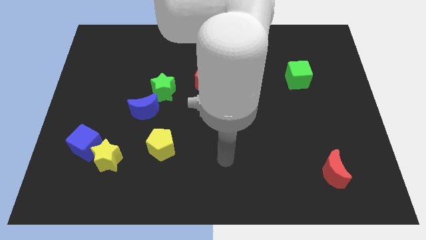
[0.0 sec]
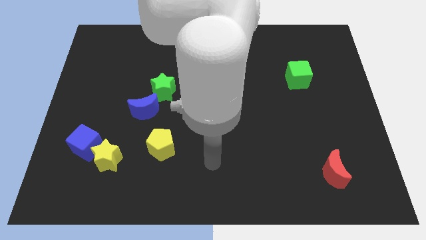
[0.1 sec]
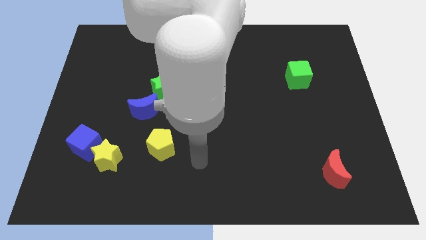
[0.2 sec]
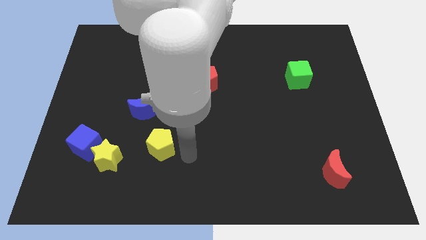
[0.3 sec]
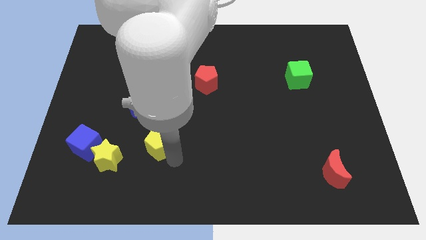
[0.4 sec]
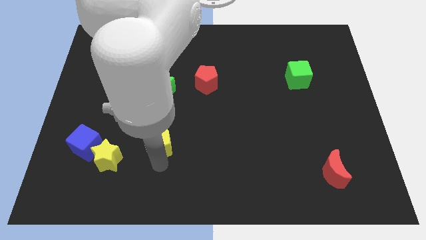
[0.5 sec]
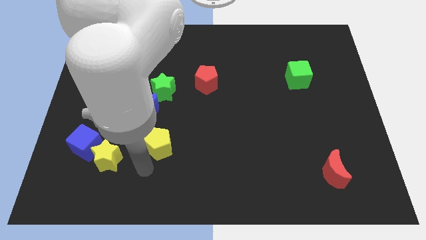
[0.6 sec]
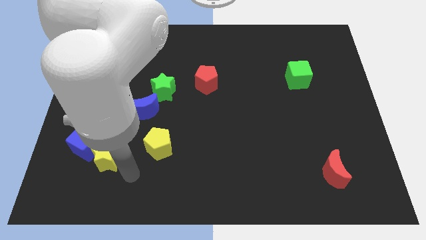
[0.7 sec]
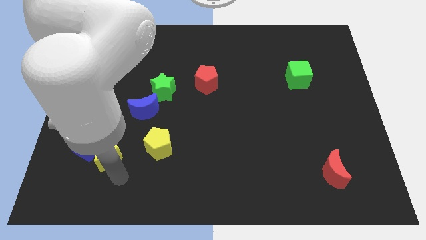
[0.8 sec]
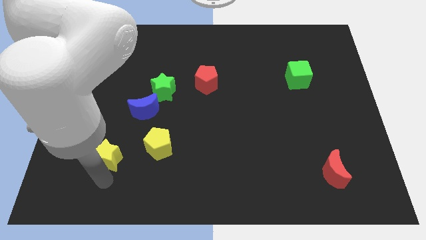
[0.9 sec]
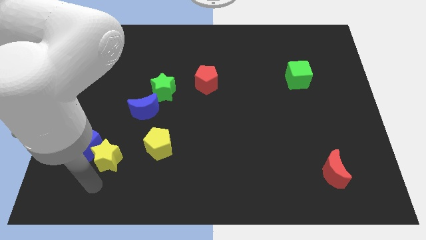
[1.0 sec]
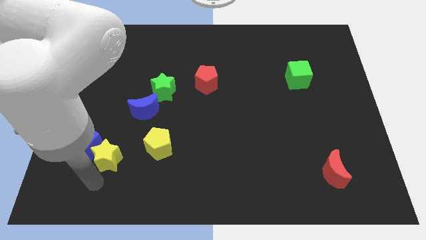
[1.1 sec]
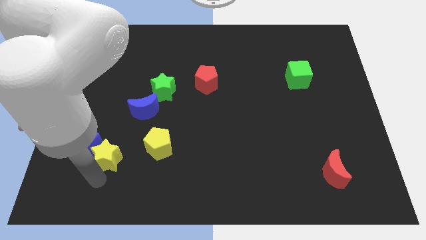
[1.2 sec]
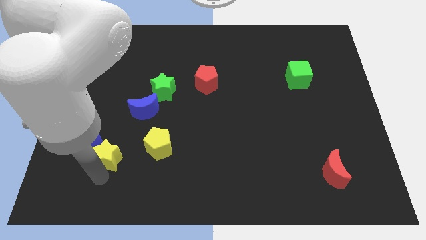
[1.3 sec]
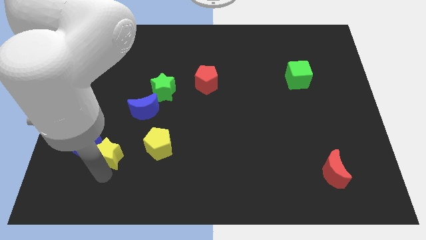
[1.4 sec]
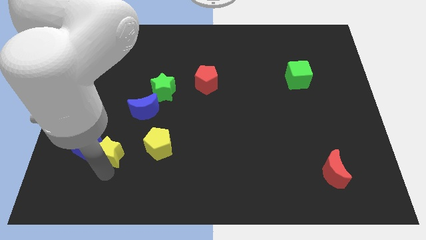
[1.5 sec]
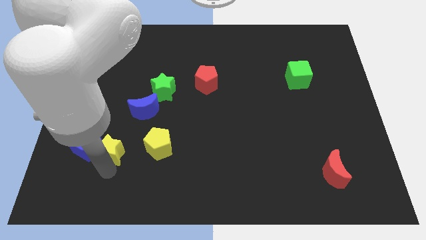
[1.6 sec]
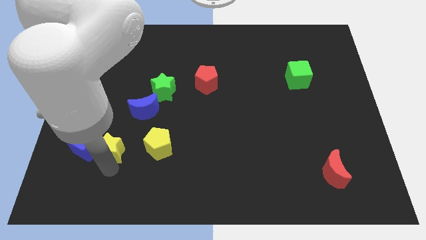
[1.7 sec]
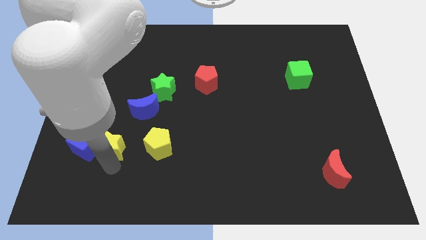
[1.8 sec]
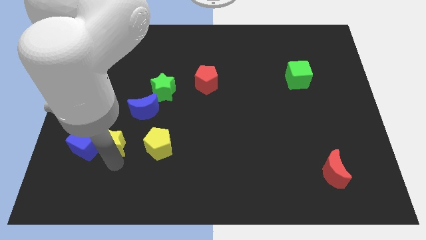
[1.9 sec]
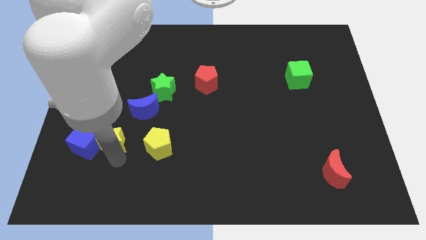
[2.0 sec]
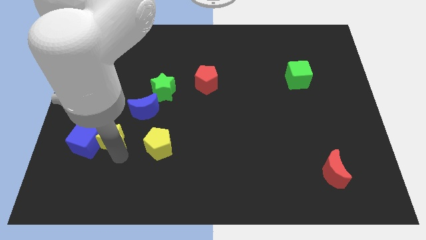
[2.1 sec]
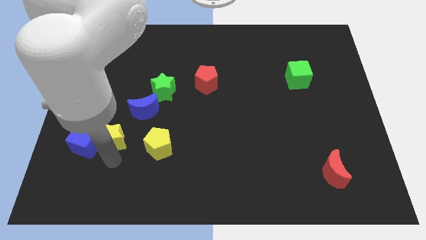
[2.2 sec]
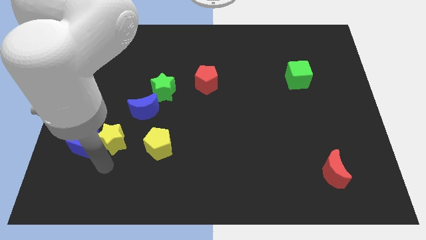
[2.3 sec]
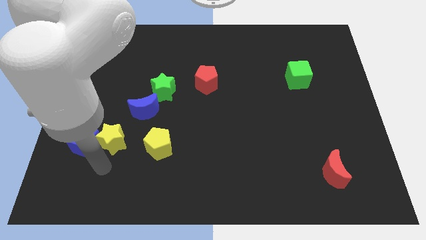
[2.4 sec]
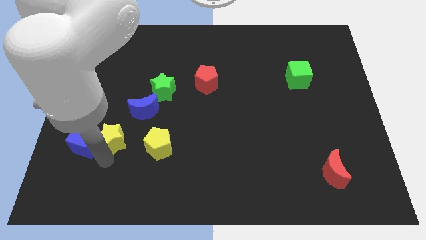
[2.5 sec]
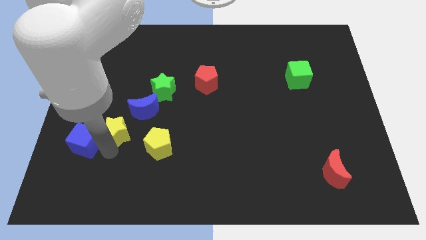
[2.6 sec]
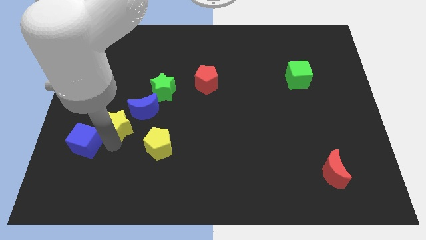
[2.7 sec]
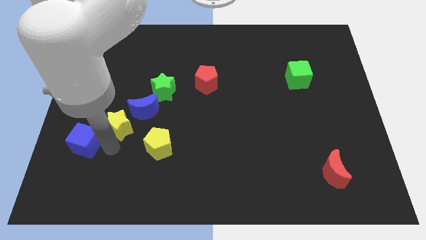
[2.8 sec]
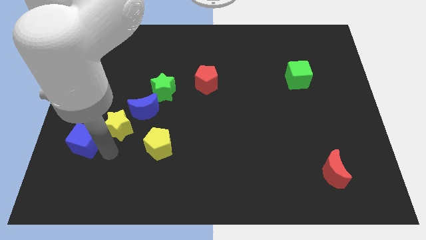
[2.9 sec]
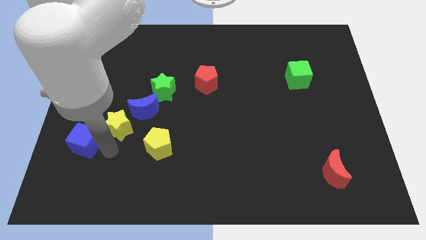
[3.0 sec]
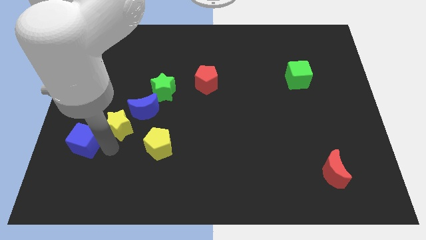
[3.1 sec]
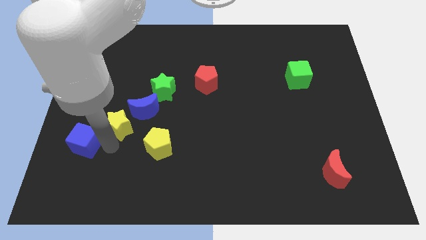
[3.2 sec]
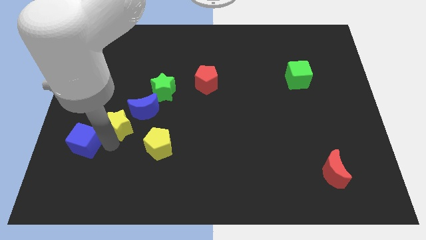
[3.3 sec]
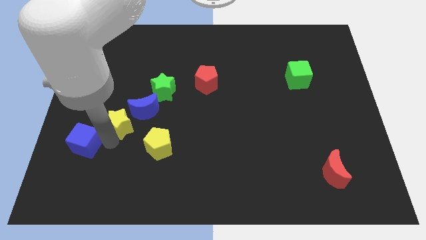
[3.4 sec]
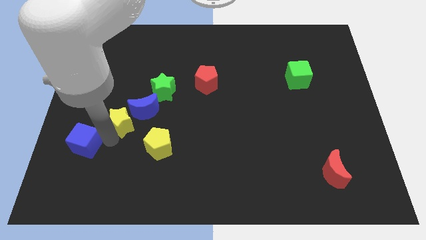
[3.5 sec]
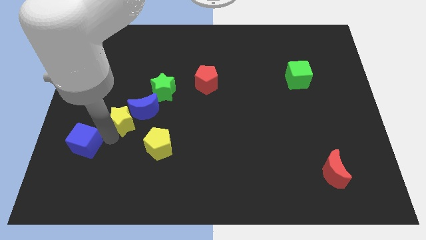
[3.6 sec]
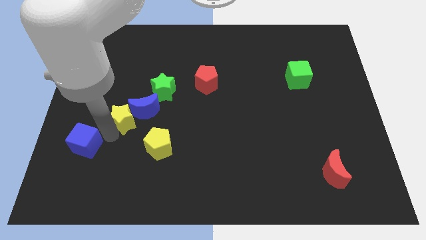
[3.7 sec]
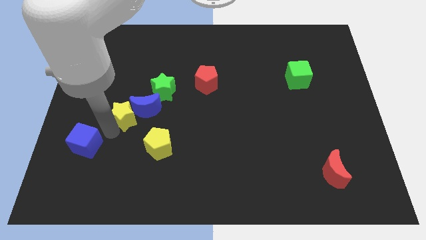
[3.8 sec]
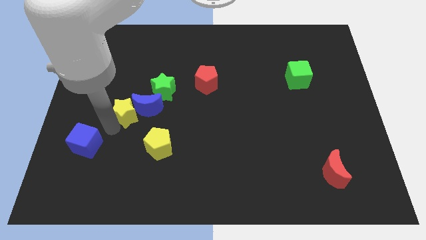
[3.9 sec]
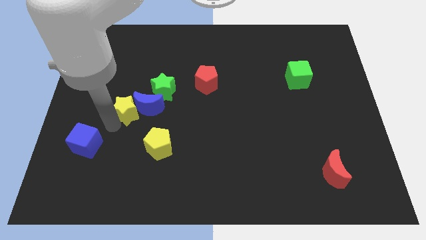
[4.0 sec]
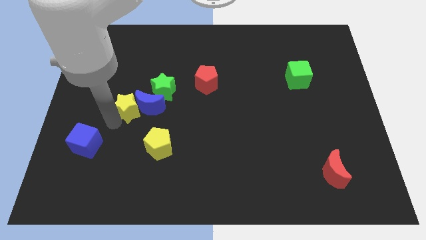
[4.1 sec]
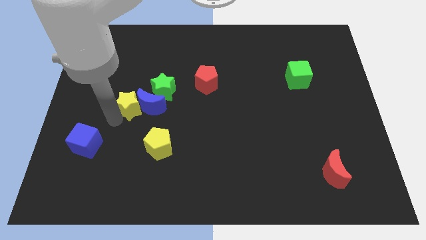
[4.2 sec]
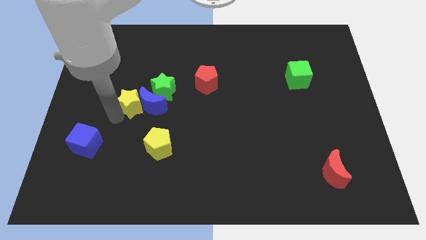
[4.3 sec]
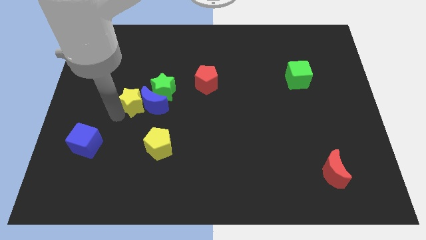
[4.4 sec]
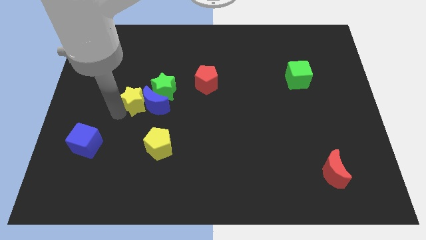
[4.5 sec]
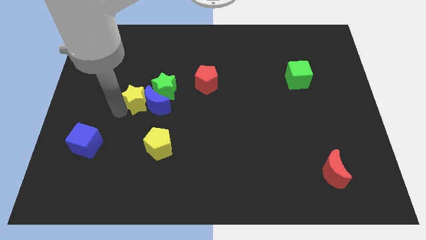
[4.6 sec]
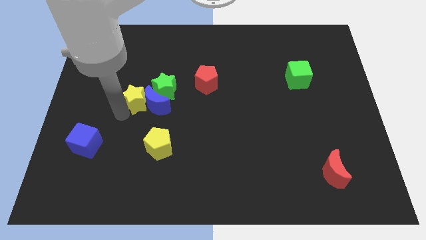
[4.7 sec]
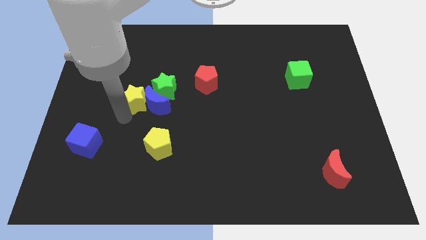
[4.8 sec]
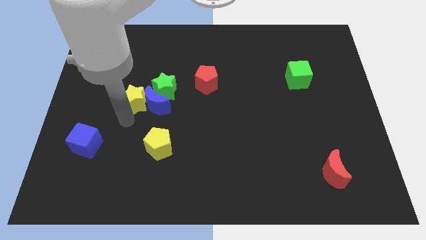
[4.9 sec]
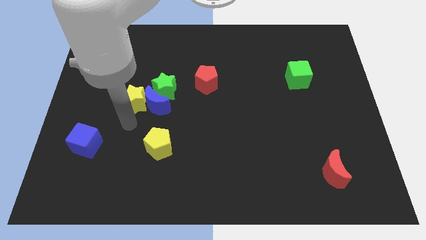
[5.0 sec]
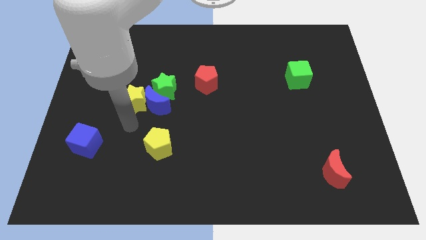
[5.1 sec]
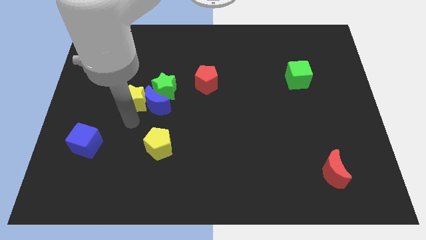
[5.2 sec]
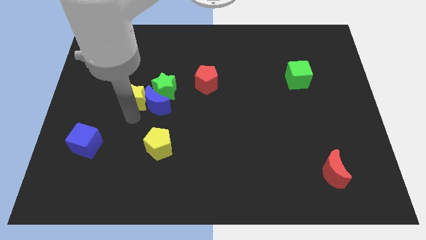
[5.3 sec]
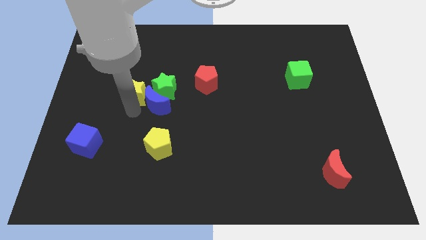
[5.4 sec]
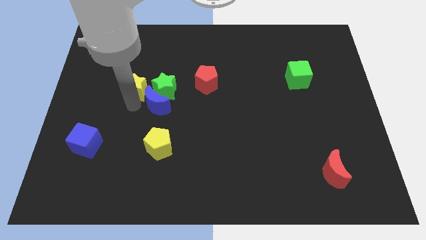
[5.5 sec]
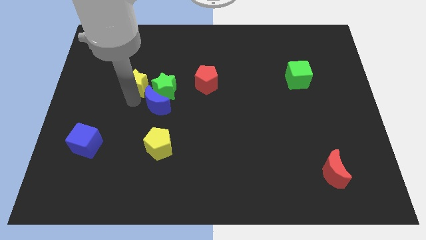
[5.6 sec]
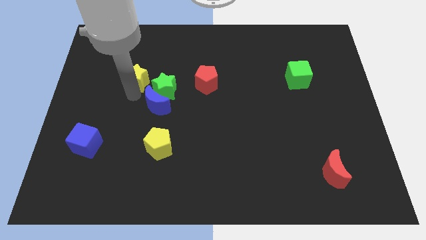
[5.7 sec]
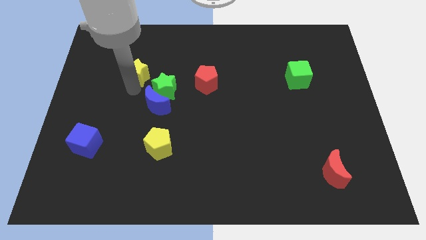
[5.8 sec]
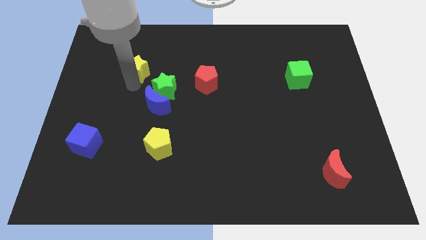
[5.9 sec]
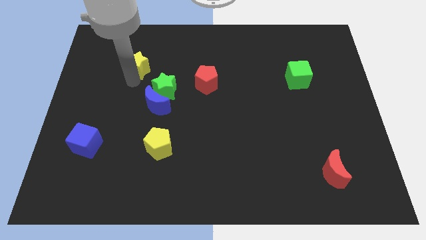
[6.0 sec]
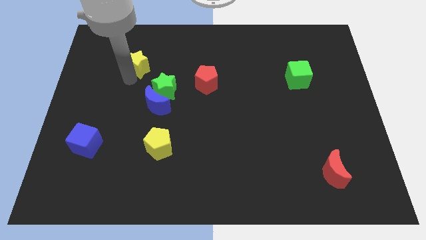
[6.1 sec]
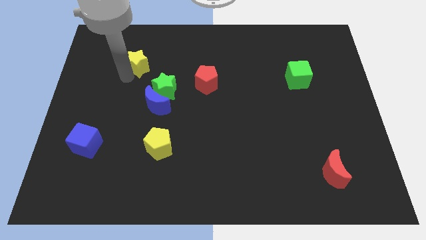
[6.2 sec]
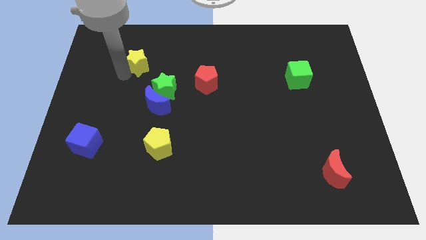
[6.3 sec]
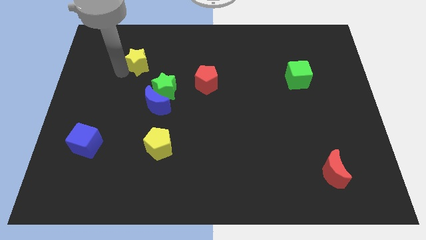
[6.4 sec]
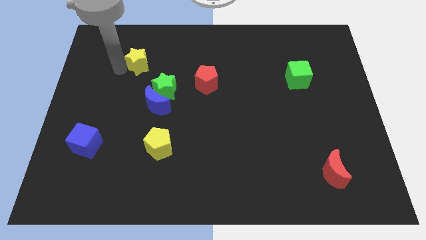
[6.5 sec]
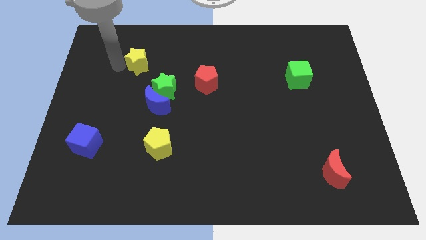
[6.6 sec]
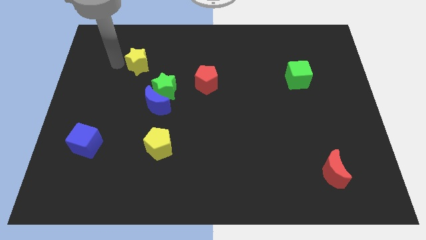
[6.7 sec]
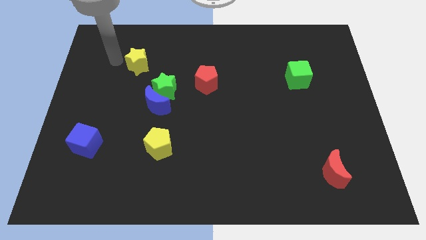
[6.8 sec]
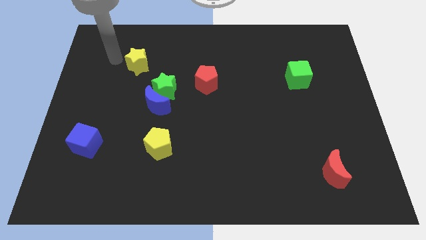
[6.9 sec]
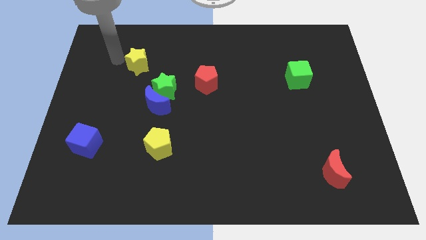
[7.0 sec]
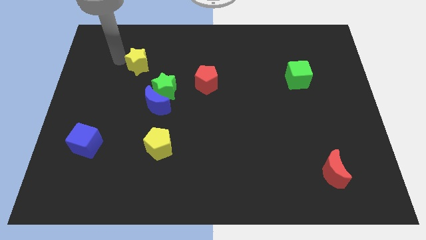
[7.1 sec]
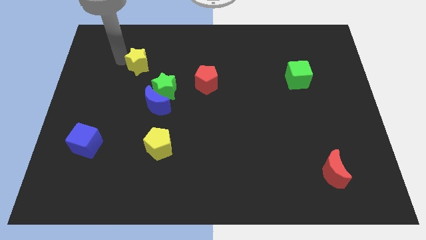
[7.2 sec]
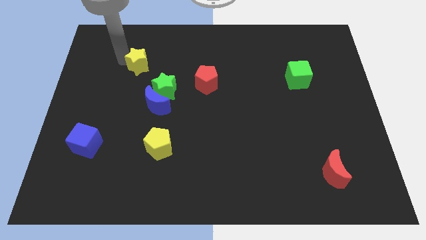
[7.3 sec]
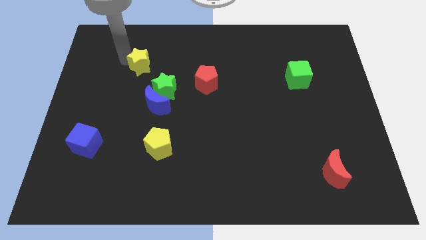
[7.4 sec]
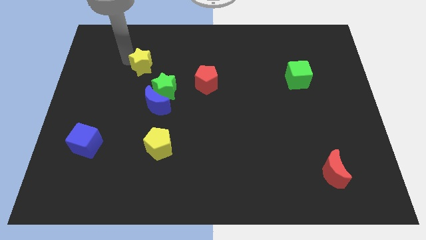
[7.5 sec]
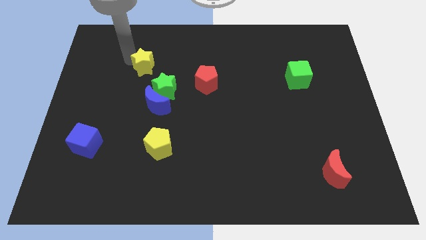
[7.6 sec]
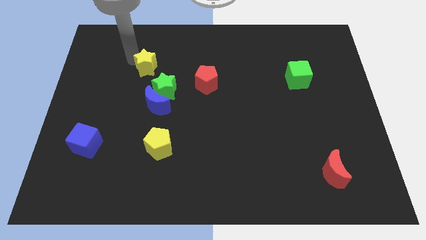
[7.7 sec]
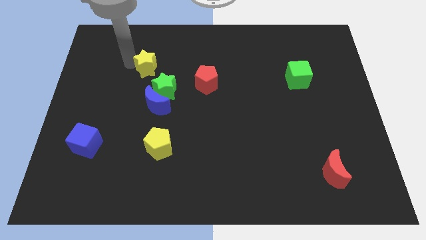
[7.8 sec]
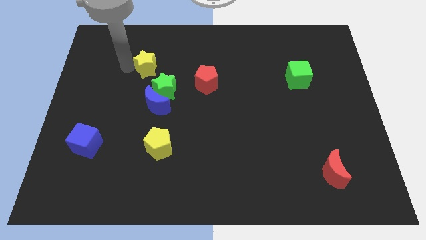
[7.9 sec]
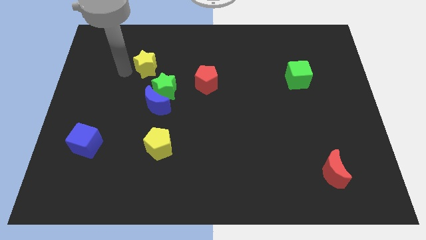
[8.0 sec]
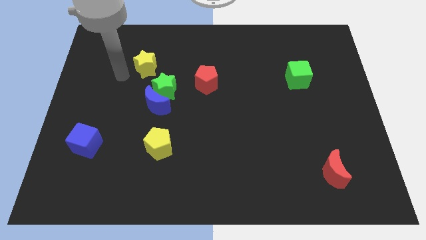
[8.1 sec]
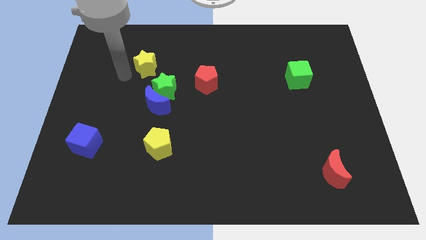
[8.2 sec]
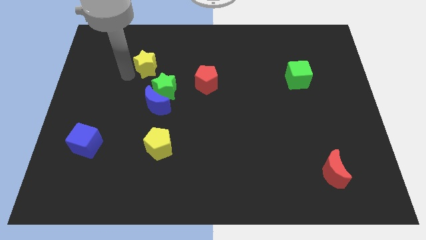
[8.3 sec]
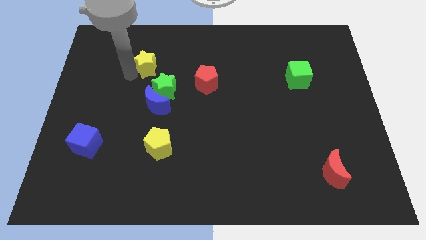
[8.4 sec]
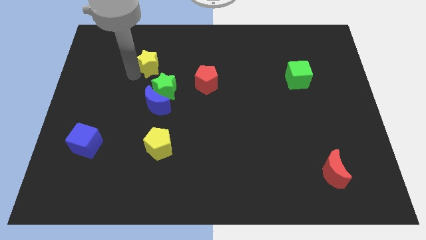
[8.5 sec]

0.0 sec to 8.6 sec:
put the yellow star to the top of the green star
